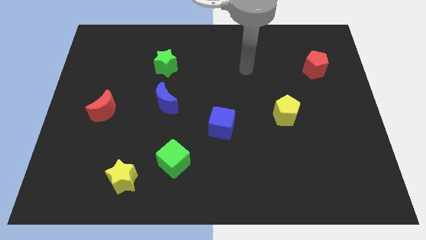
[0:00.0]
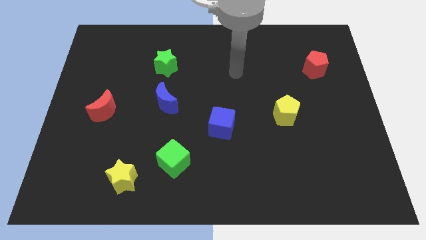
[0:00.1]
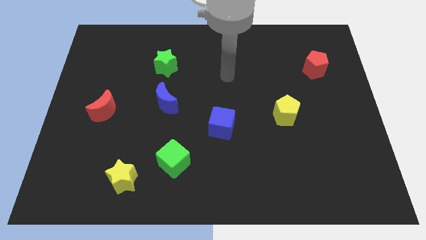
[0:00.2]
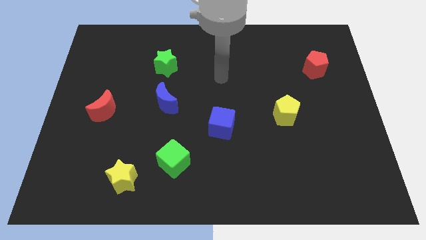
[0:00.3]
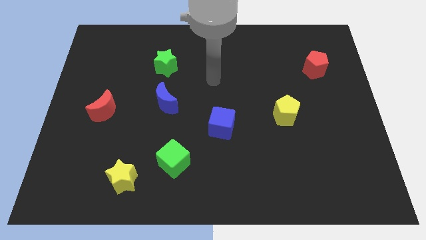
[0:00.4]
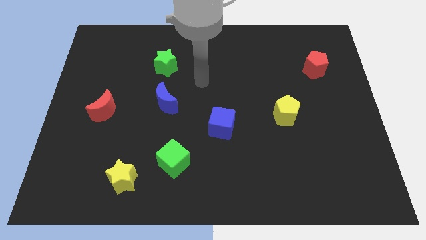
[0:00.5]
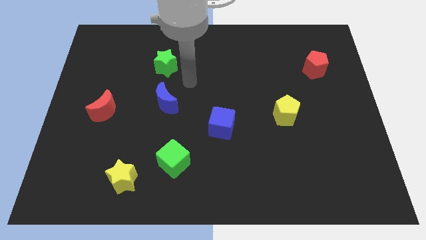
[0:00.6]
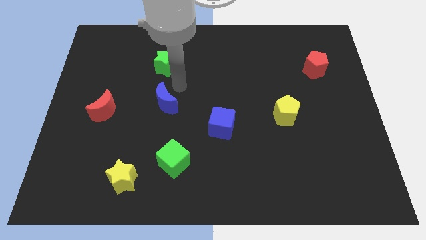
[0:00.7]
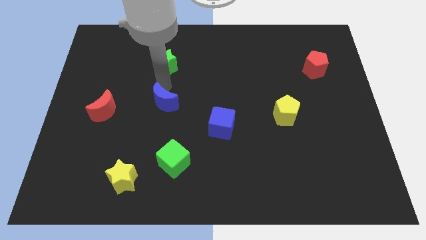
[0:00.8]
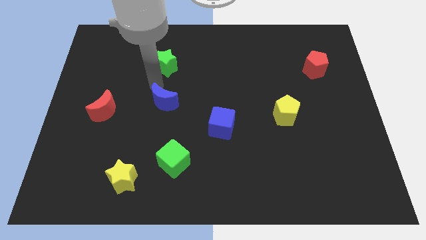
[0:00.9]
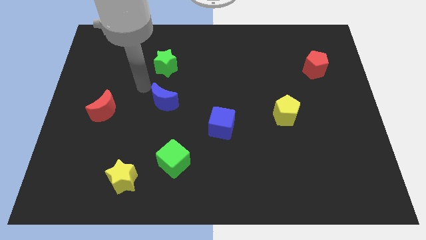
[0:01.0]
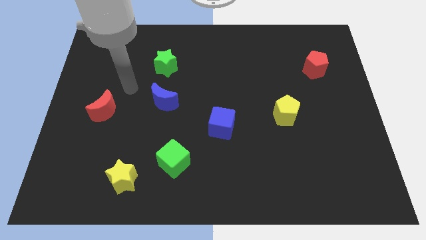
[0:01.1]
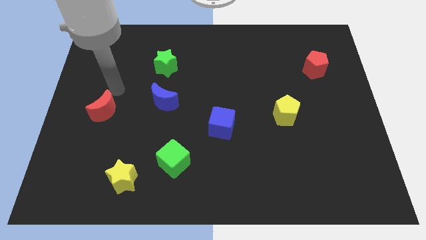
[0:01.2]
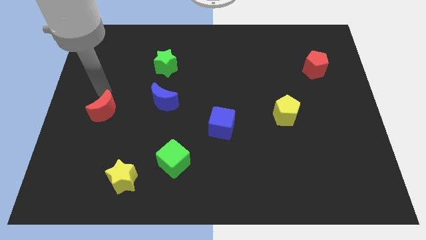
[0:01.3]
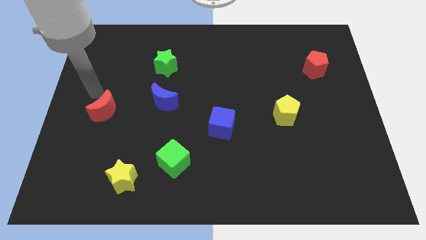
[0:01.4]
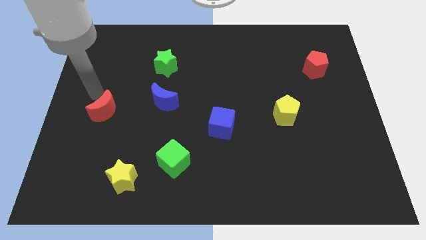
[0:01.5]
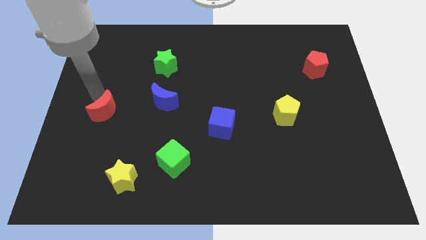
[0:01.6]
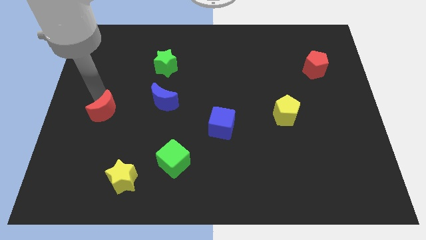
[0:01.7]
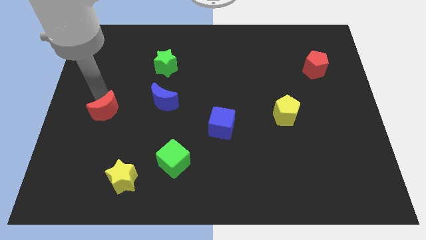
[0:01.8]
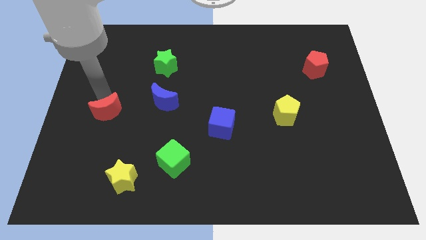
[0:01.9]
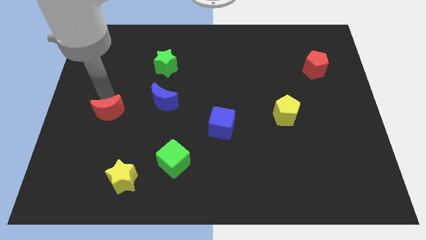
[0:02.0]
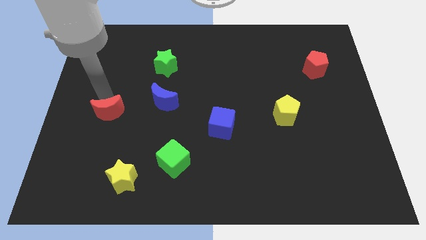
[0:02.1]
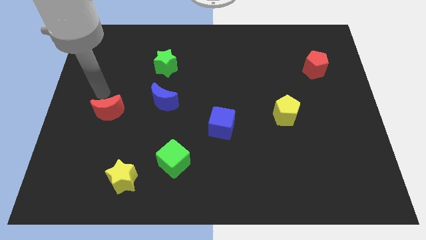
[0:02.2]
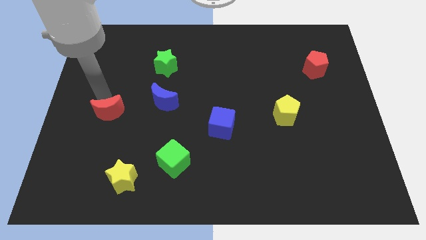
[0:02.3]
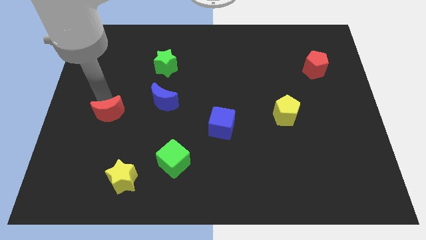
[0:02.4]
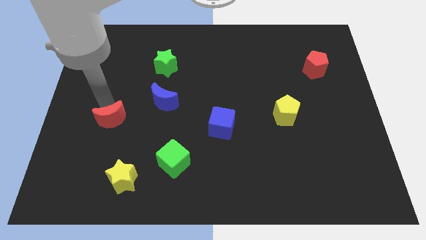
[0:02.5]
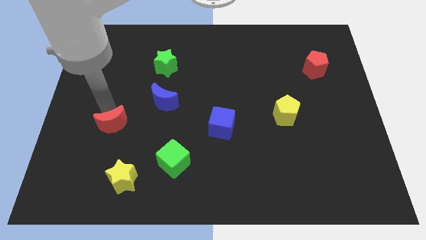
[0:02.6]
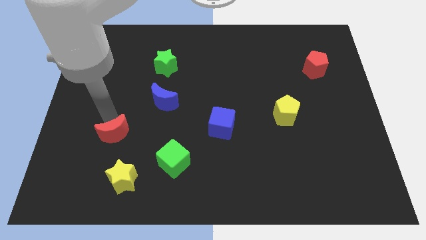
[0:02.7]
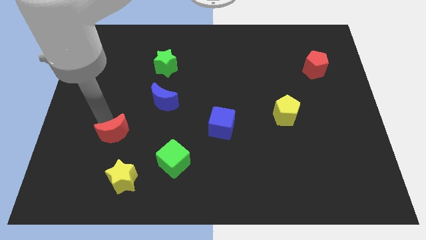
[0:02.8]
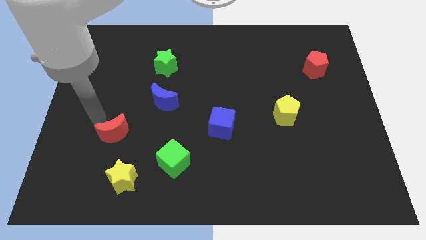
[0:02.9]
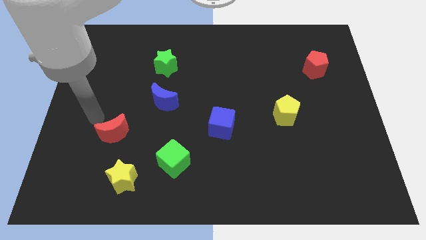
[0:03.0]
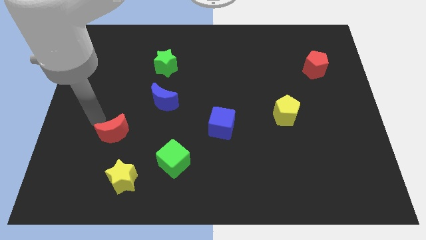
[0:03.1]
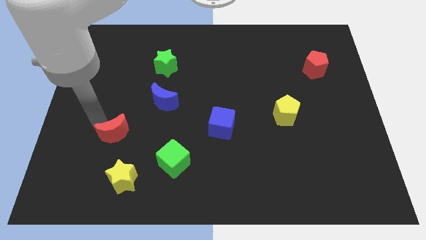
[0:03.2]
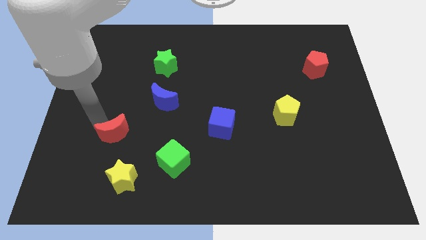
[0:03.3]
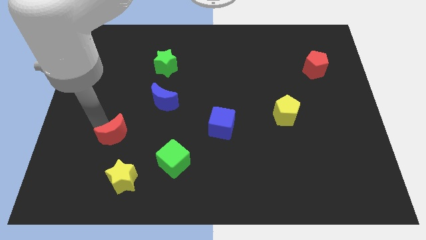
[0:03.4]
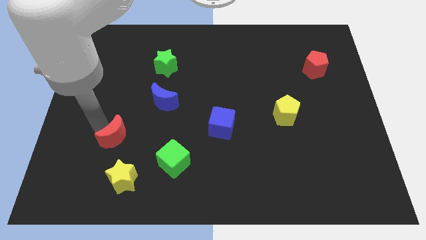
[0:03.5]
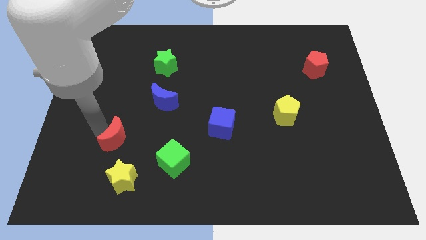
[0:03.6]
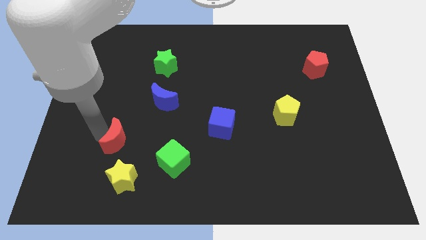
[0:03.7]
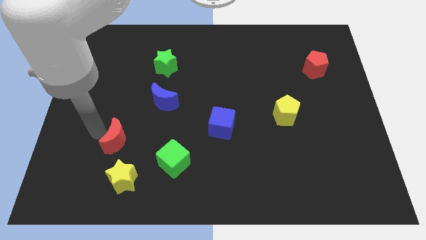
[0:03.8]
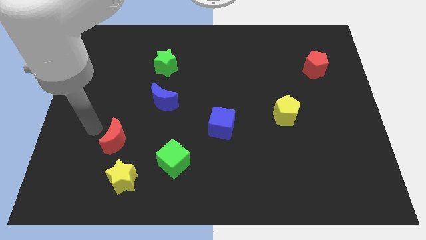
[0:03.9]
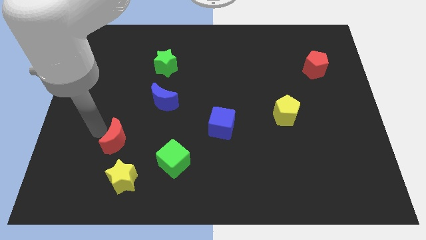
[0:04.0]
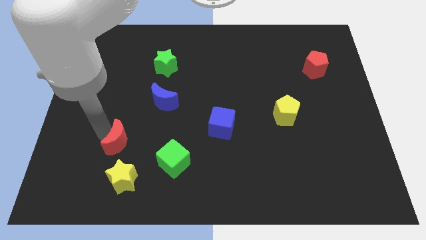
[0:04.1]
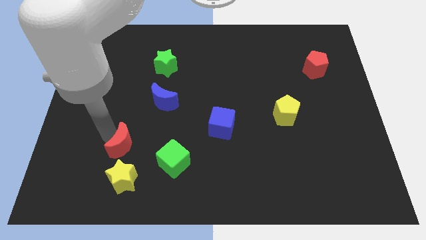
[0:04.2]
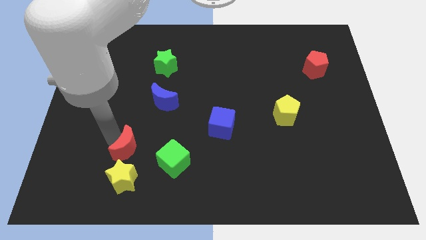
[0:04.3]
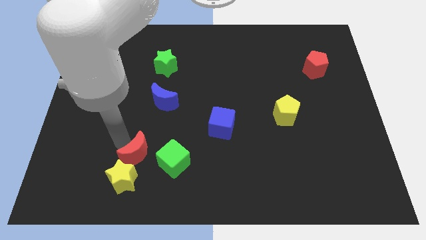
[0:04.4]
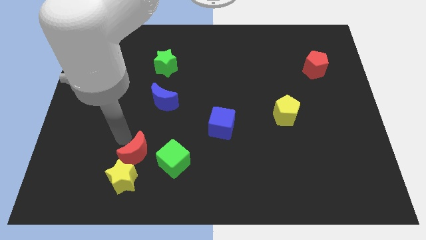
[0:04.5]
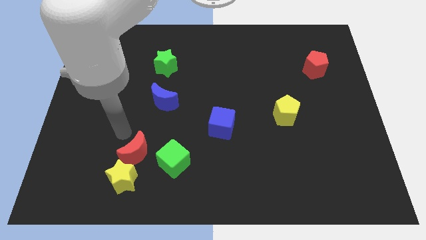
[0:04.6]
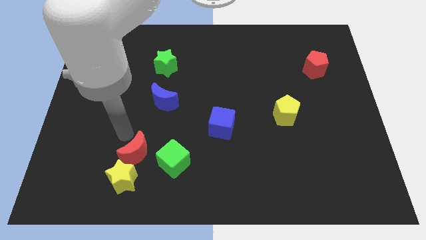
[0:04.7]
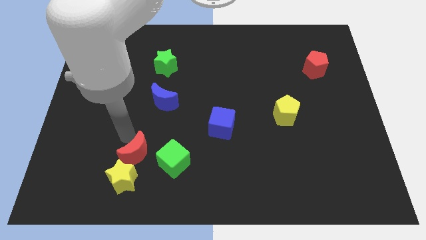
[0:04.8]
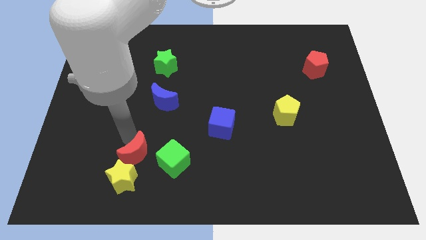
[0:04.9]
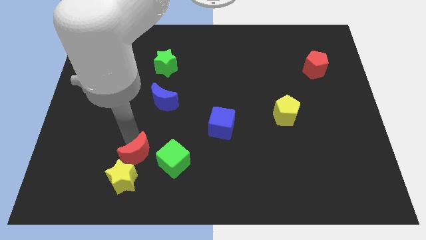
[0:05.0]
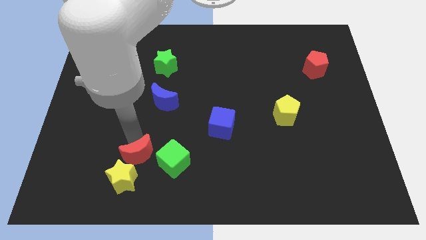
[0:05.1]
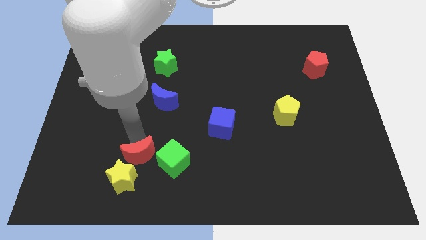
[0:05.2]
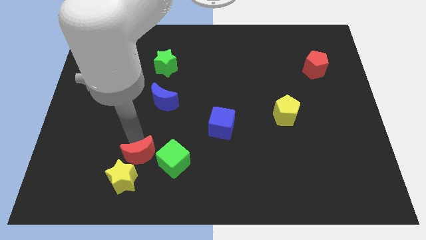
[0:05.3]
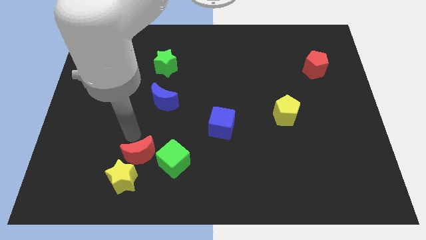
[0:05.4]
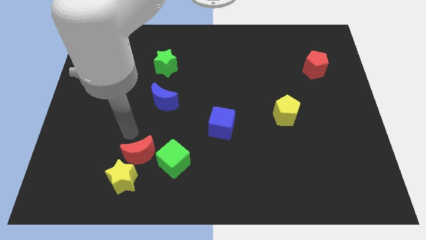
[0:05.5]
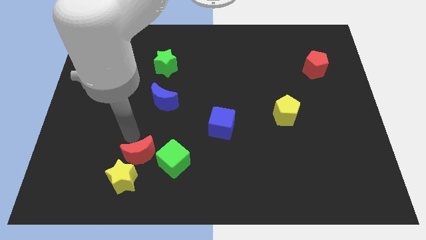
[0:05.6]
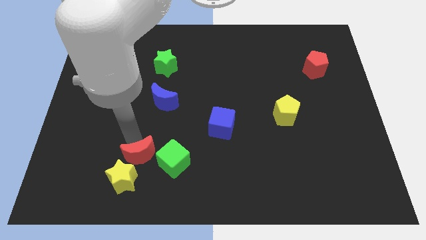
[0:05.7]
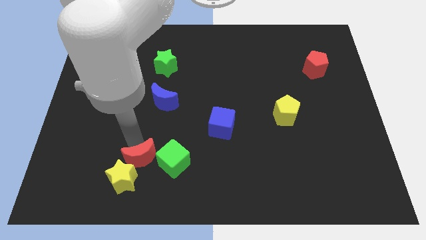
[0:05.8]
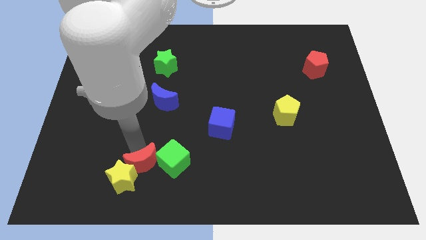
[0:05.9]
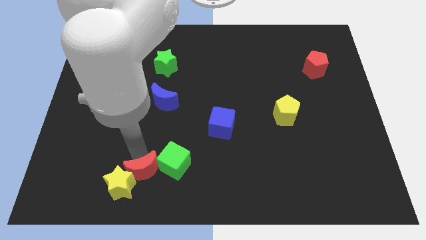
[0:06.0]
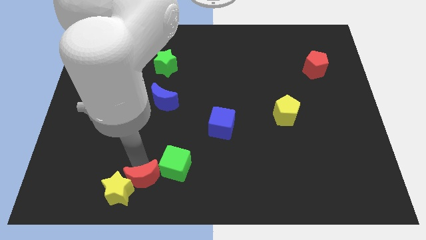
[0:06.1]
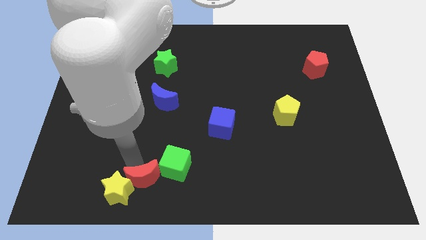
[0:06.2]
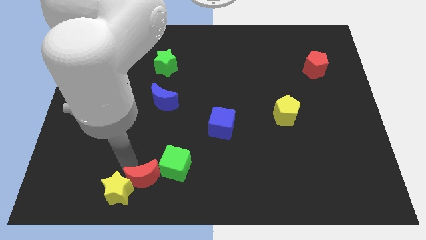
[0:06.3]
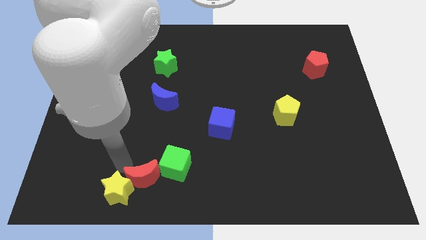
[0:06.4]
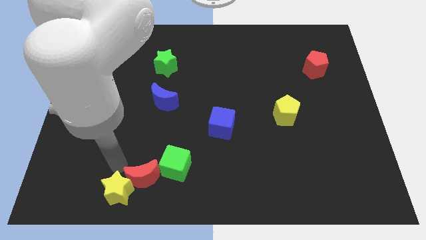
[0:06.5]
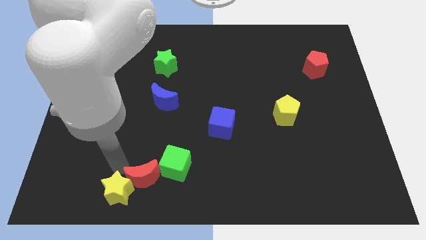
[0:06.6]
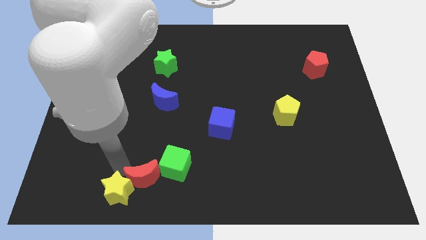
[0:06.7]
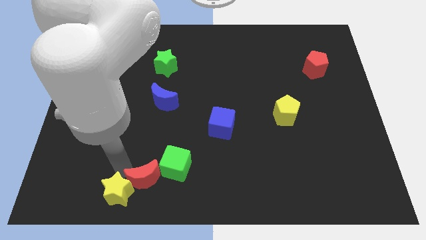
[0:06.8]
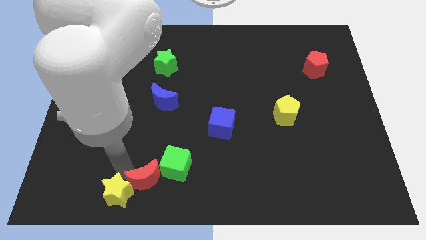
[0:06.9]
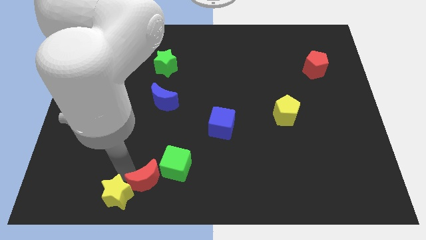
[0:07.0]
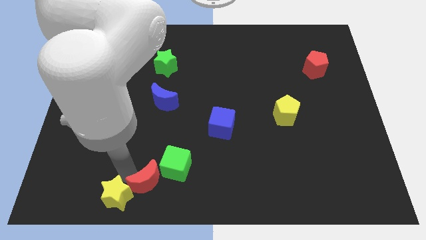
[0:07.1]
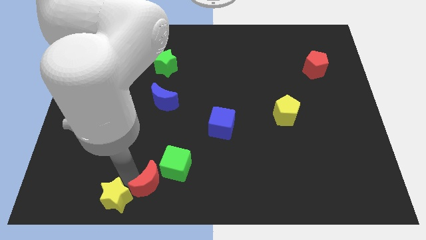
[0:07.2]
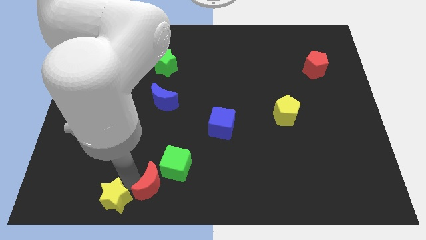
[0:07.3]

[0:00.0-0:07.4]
push the red moon to the bottom
